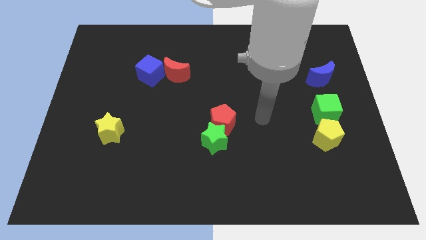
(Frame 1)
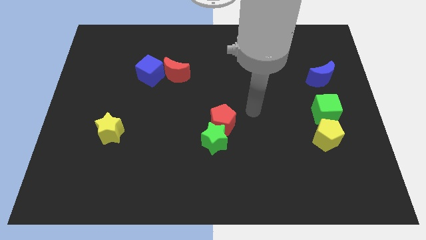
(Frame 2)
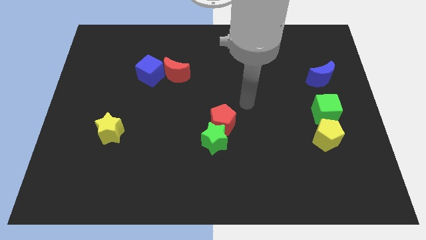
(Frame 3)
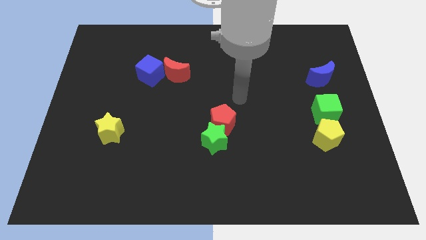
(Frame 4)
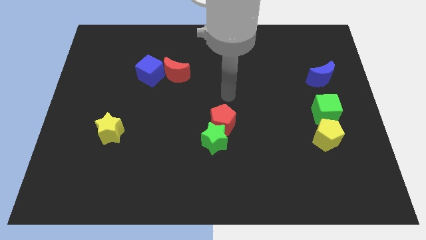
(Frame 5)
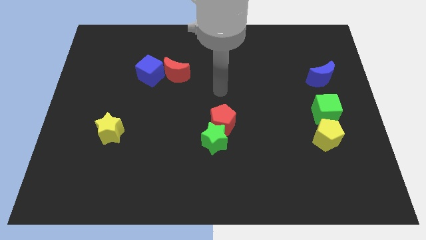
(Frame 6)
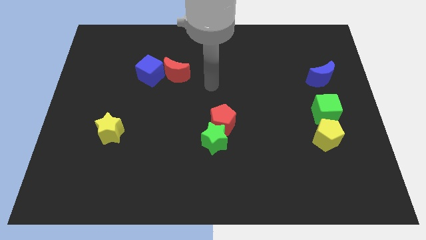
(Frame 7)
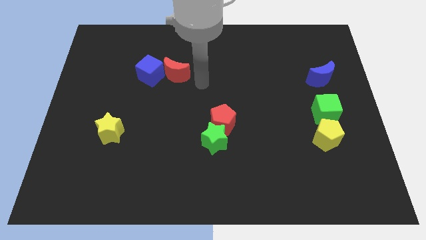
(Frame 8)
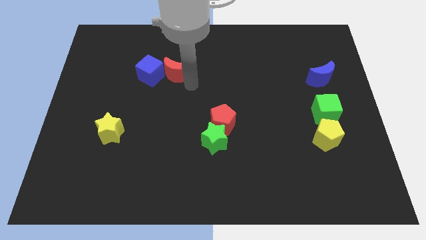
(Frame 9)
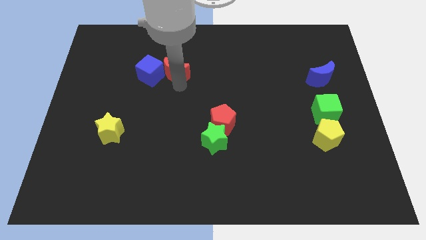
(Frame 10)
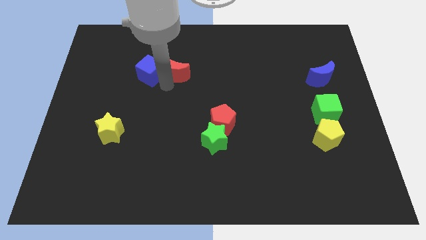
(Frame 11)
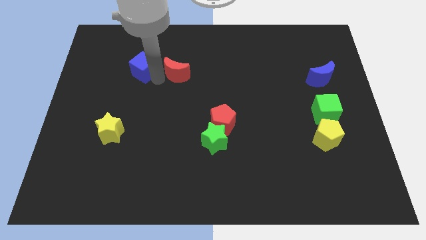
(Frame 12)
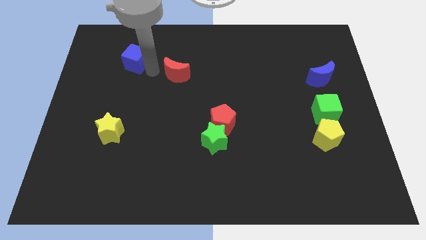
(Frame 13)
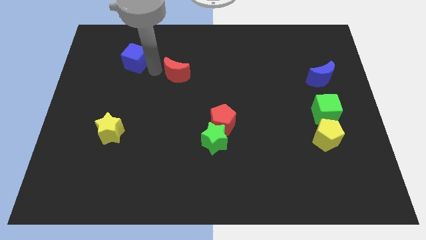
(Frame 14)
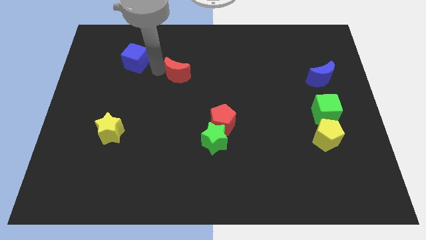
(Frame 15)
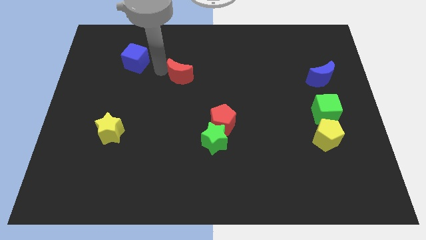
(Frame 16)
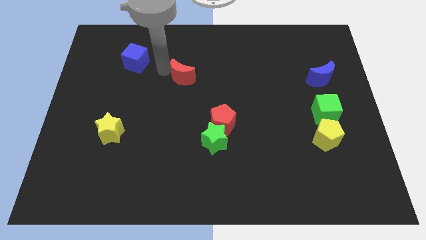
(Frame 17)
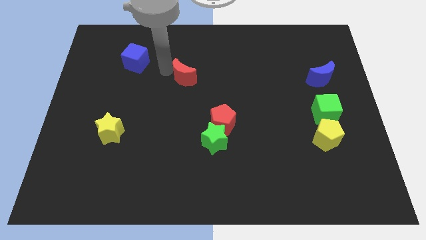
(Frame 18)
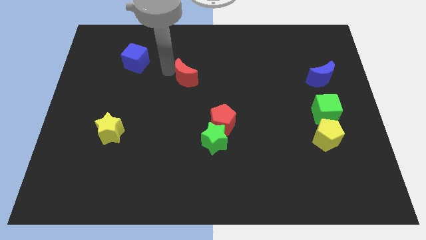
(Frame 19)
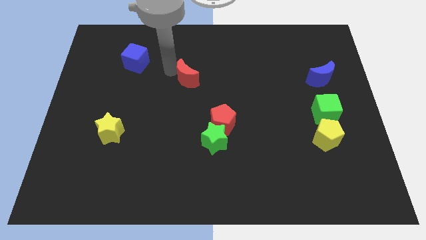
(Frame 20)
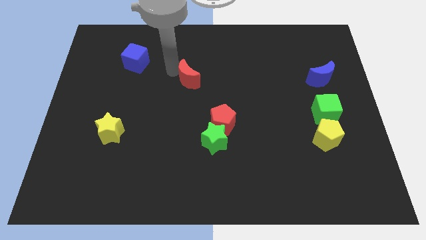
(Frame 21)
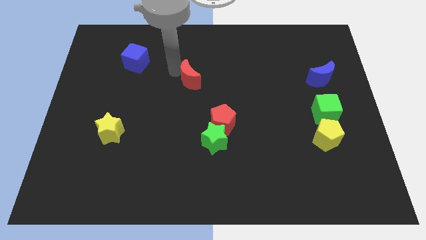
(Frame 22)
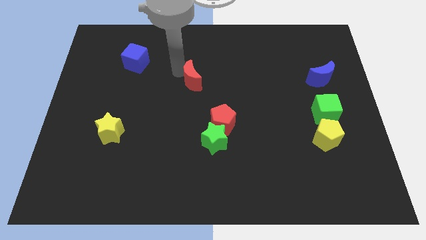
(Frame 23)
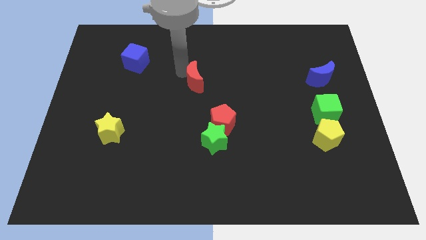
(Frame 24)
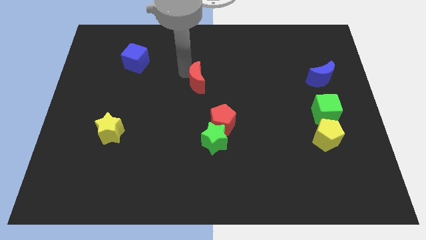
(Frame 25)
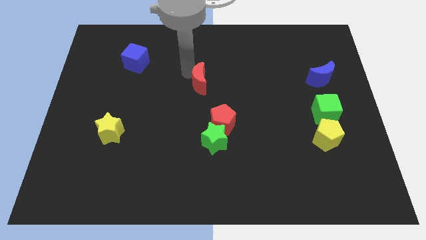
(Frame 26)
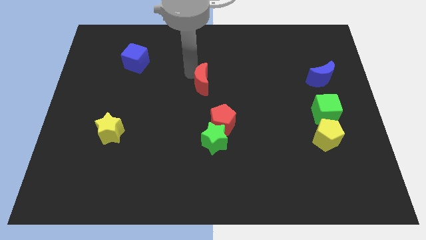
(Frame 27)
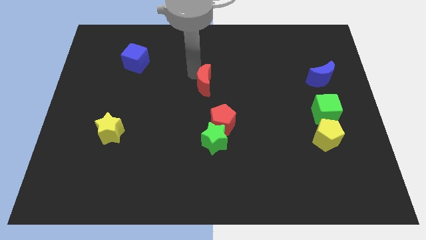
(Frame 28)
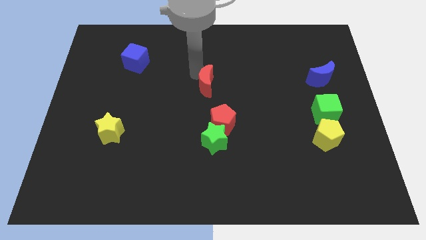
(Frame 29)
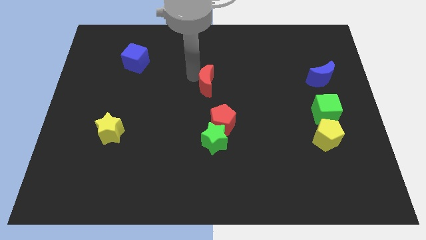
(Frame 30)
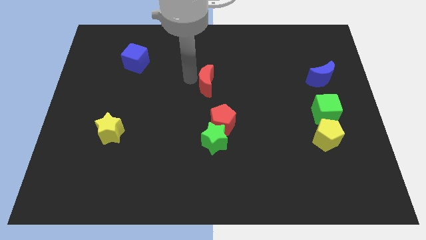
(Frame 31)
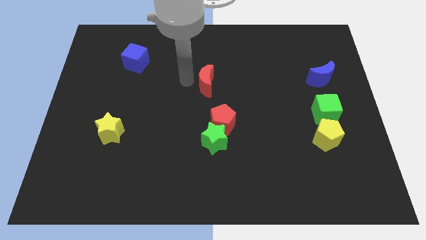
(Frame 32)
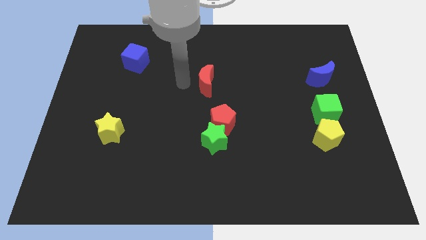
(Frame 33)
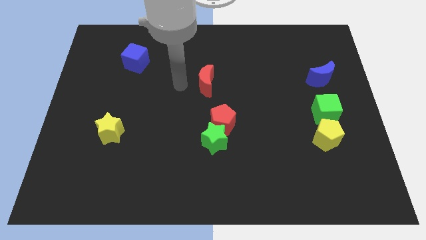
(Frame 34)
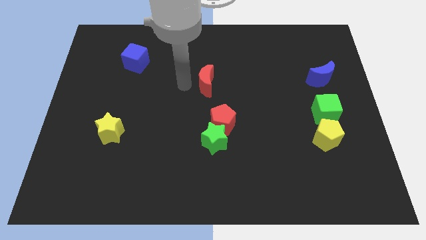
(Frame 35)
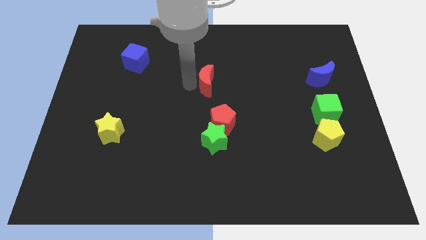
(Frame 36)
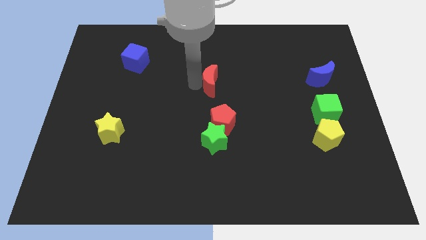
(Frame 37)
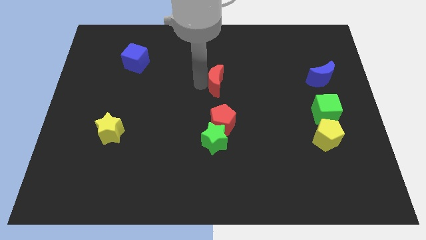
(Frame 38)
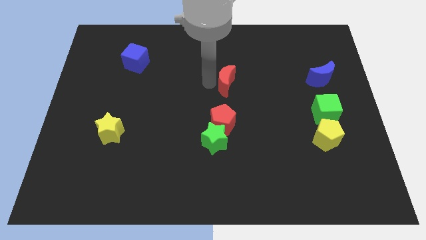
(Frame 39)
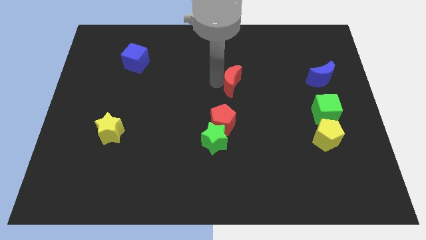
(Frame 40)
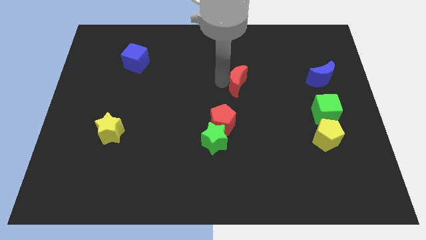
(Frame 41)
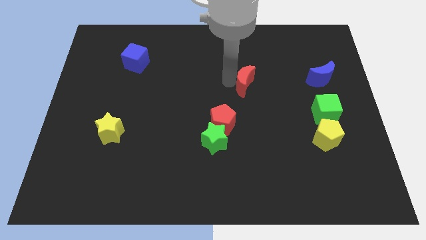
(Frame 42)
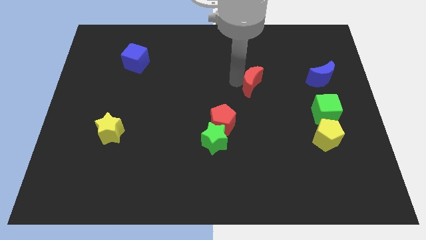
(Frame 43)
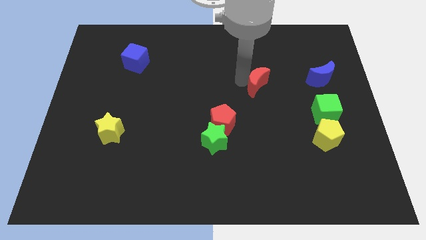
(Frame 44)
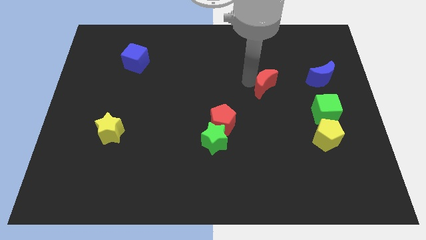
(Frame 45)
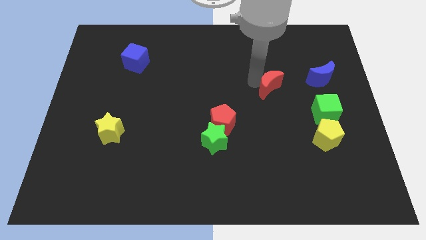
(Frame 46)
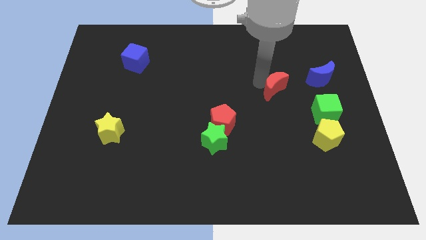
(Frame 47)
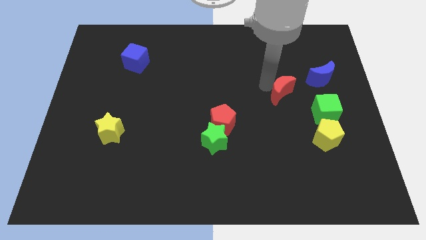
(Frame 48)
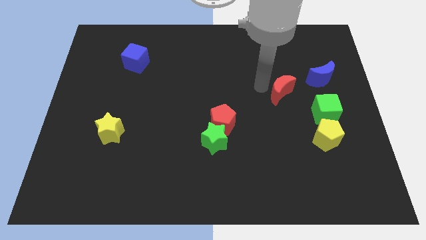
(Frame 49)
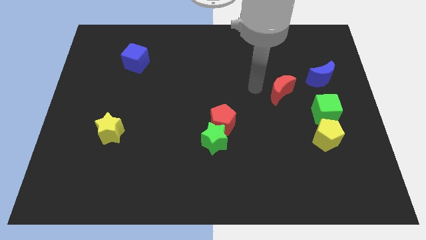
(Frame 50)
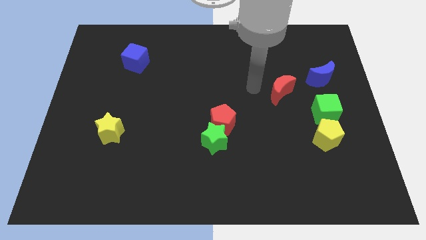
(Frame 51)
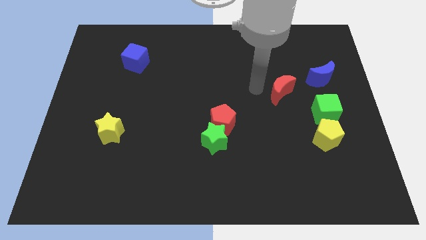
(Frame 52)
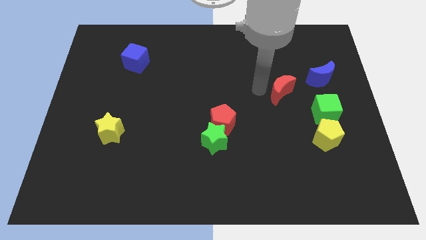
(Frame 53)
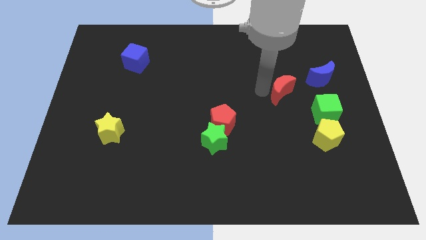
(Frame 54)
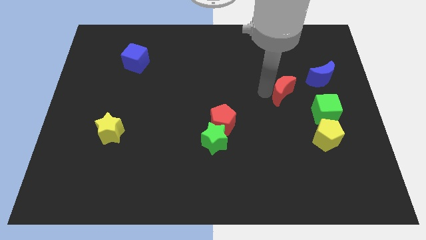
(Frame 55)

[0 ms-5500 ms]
push the red moon diagonally down and to the left of the blue moon

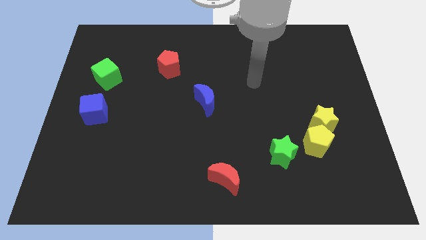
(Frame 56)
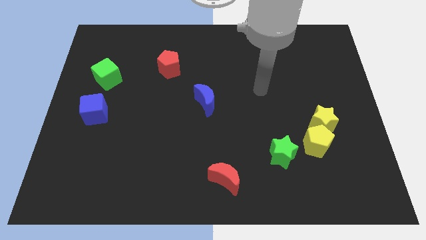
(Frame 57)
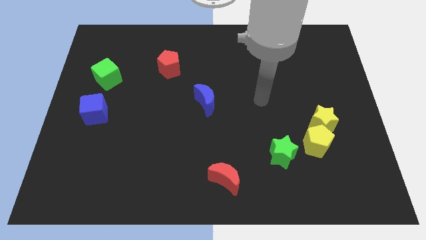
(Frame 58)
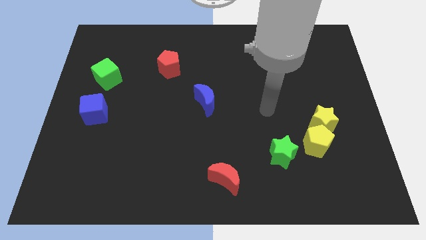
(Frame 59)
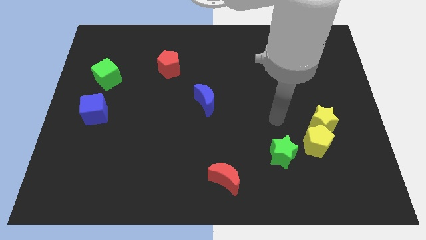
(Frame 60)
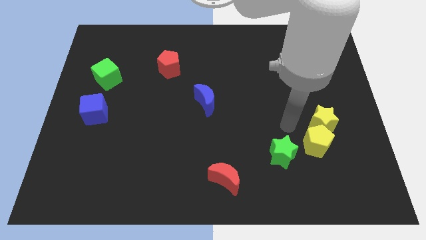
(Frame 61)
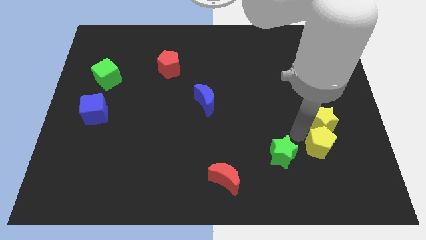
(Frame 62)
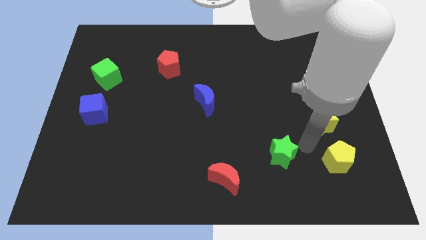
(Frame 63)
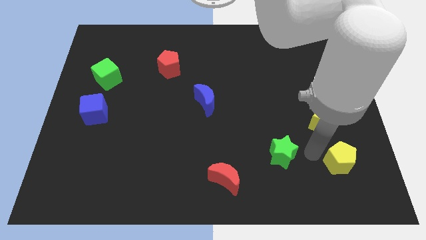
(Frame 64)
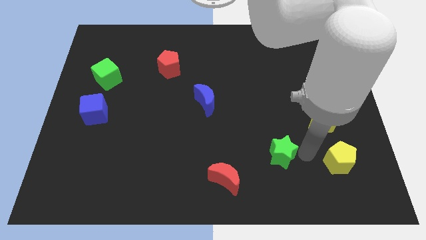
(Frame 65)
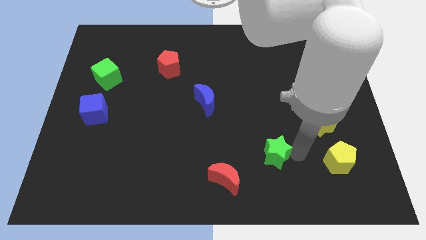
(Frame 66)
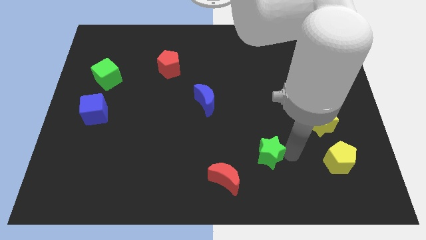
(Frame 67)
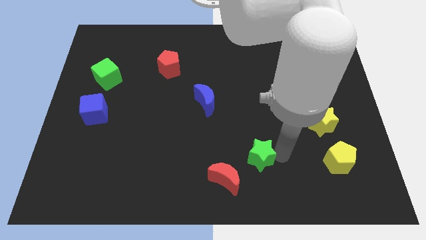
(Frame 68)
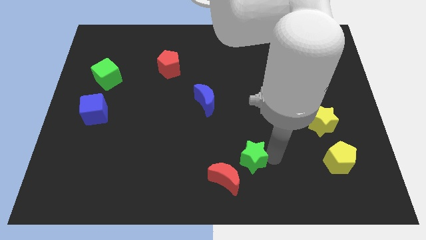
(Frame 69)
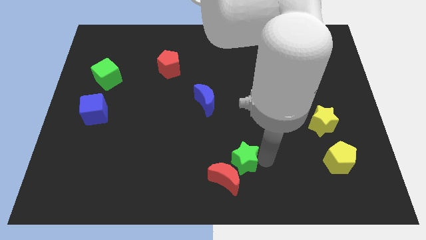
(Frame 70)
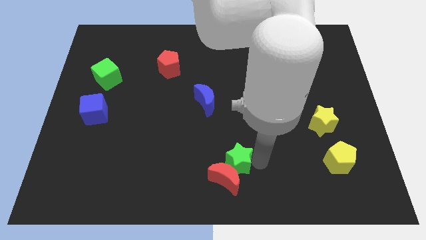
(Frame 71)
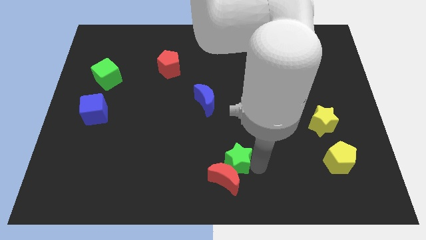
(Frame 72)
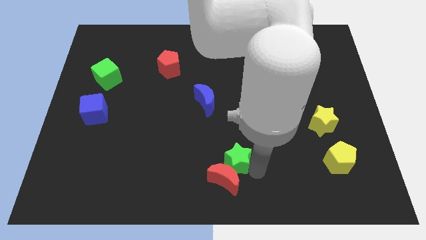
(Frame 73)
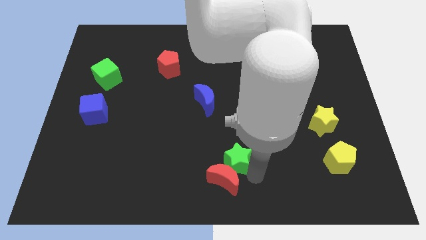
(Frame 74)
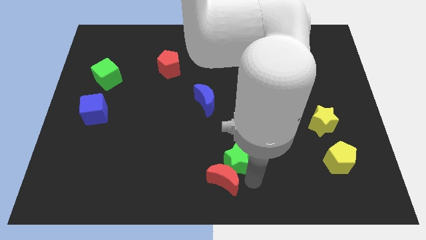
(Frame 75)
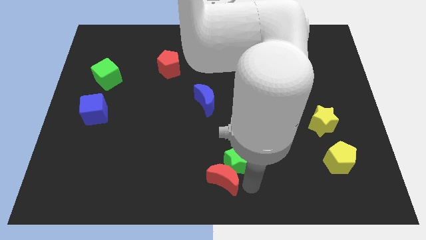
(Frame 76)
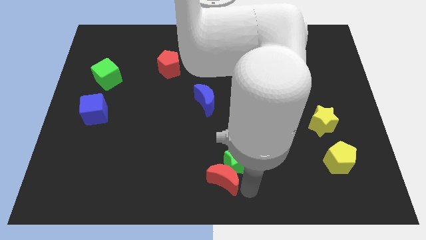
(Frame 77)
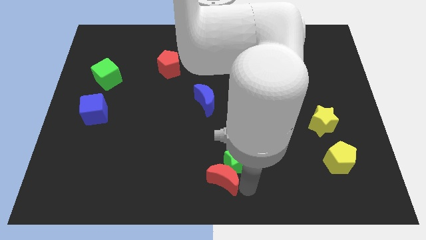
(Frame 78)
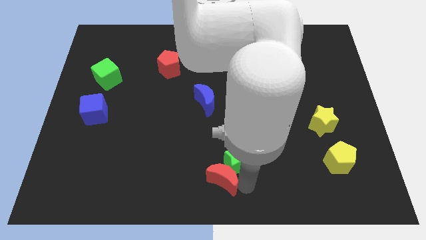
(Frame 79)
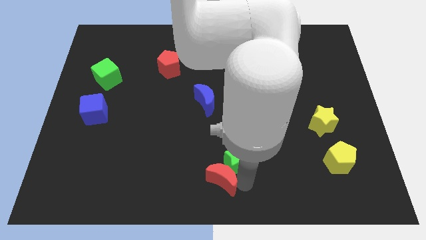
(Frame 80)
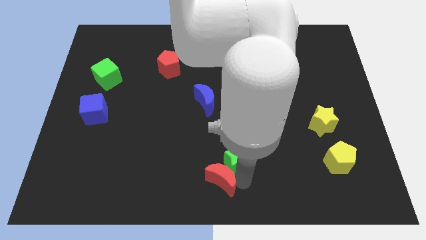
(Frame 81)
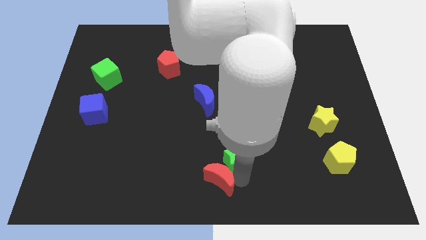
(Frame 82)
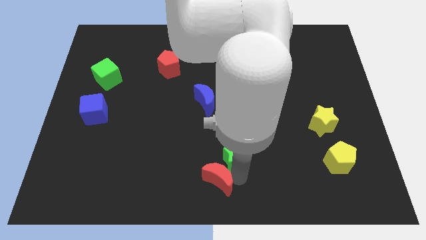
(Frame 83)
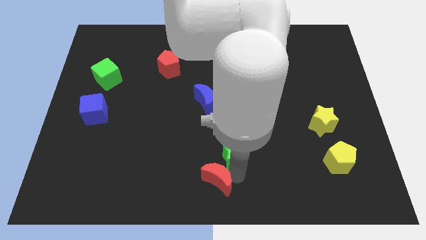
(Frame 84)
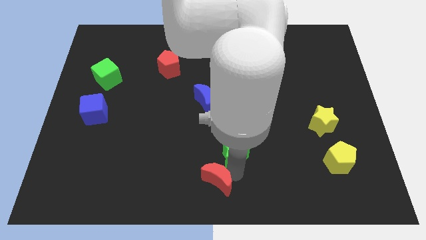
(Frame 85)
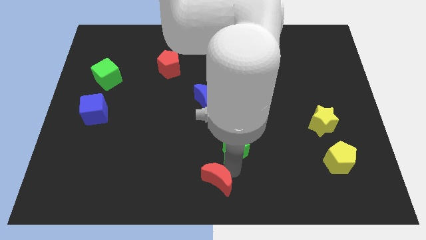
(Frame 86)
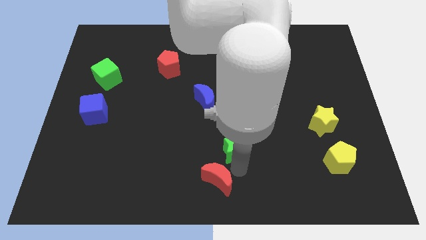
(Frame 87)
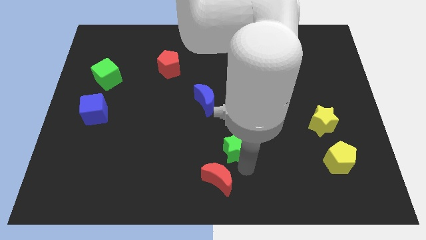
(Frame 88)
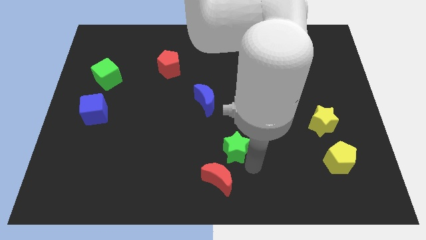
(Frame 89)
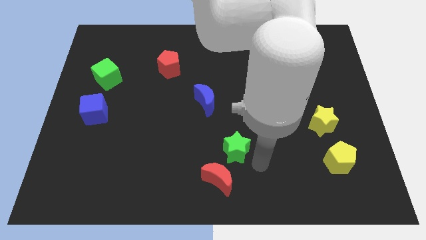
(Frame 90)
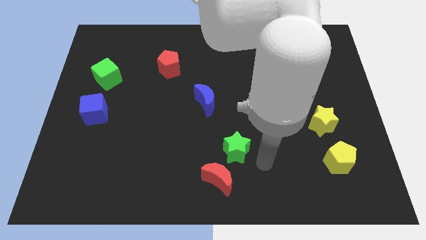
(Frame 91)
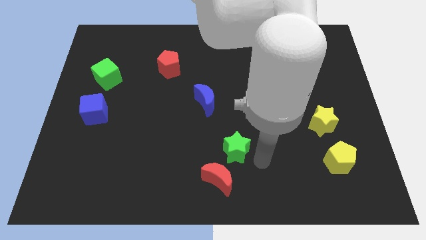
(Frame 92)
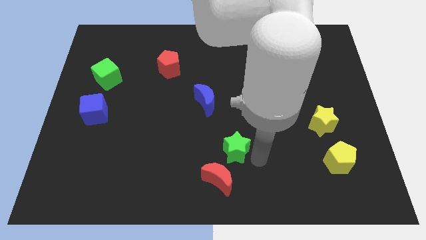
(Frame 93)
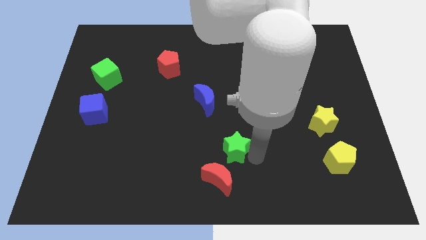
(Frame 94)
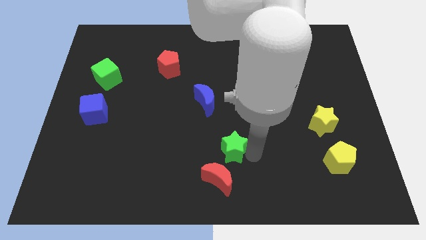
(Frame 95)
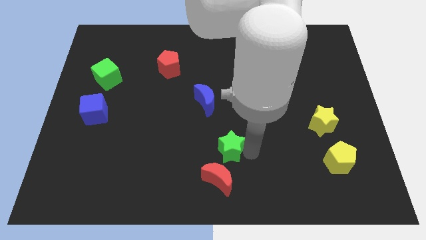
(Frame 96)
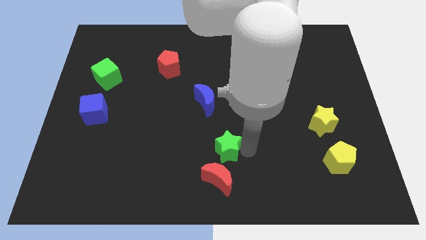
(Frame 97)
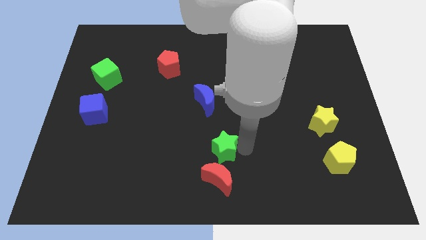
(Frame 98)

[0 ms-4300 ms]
slide the green star to the bottom of the blue moon
